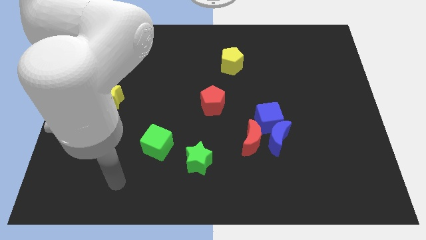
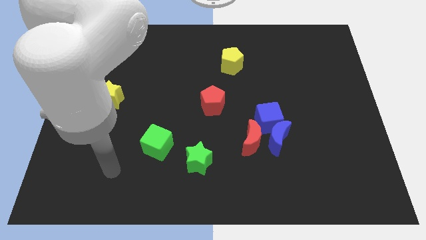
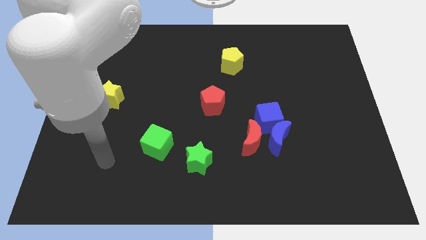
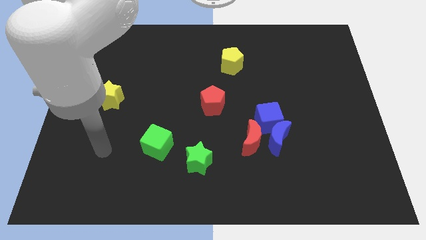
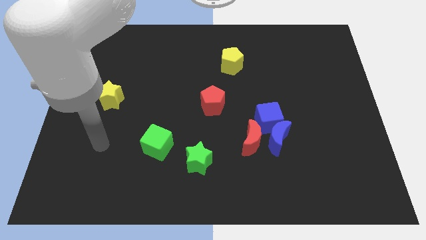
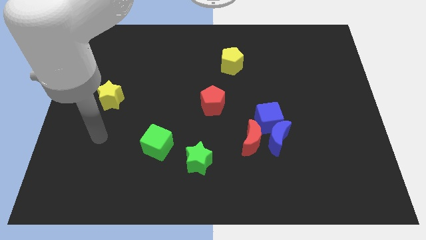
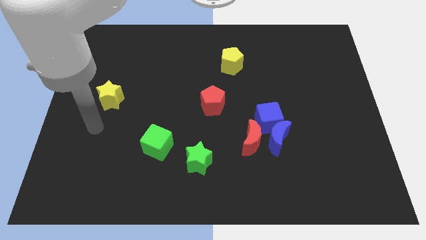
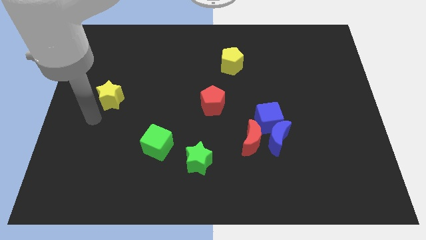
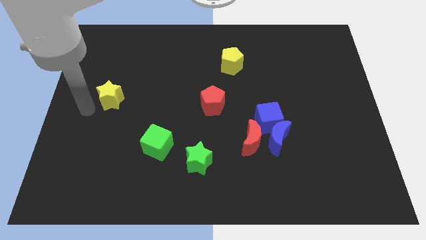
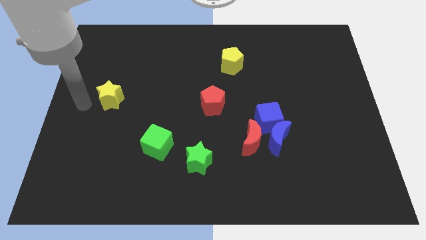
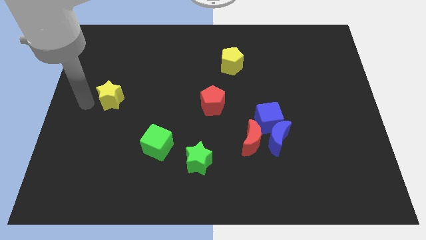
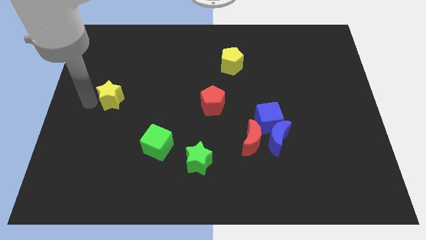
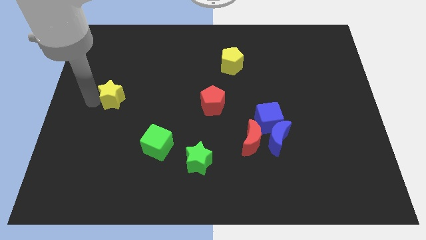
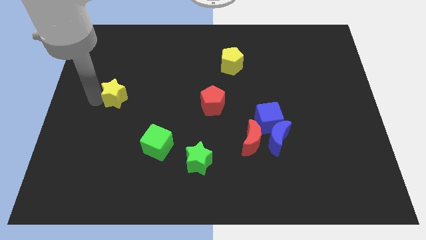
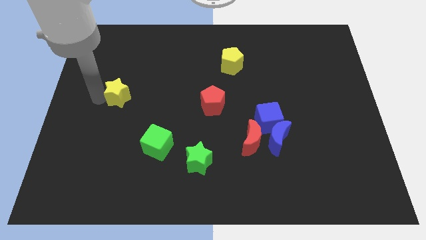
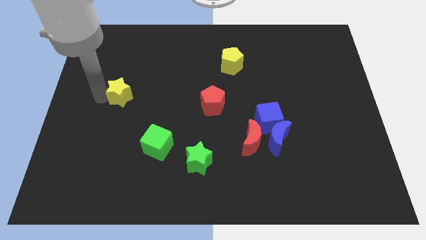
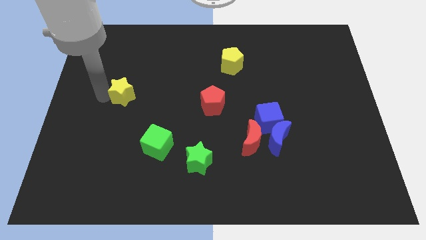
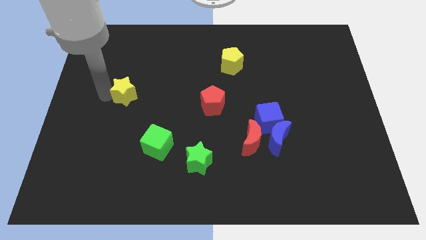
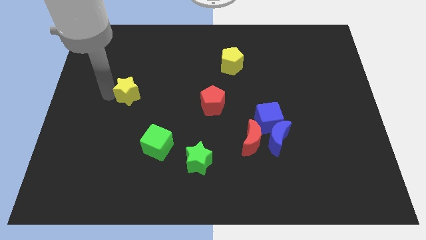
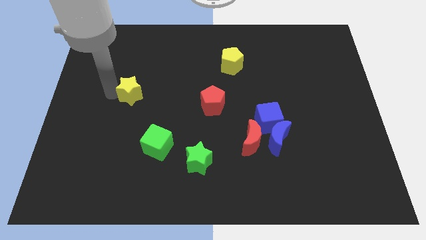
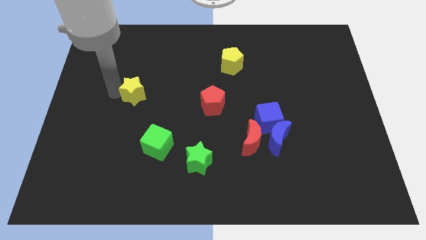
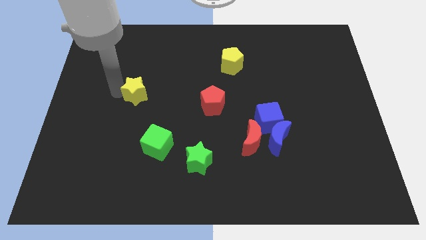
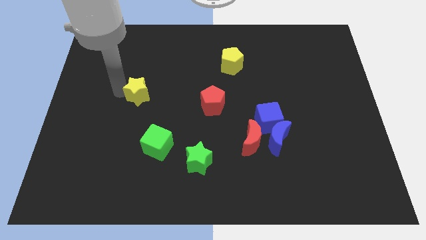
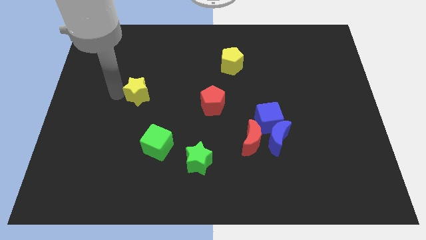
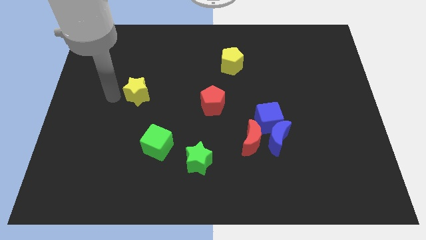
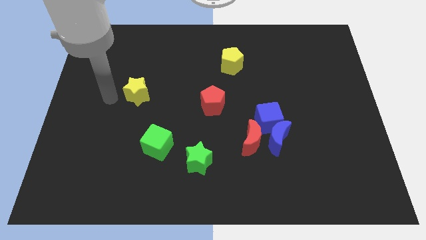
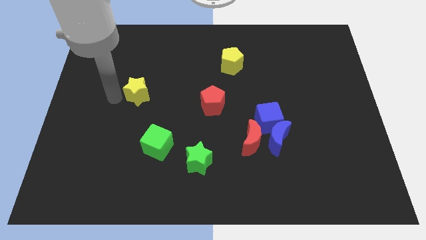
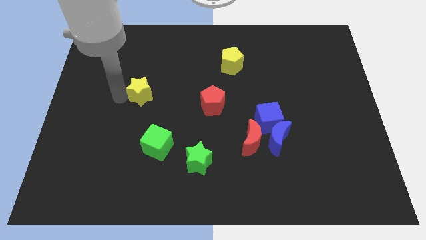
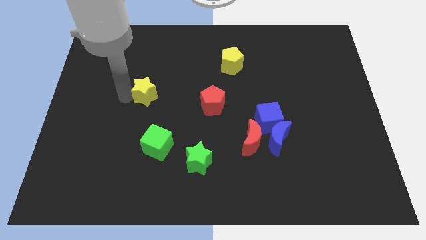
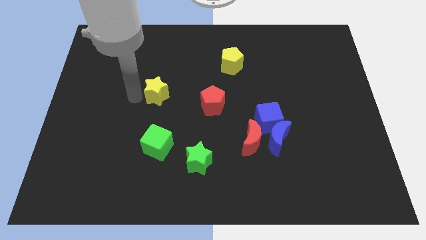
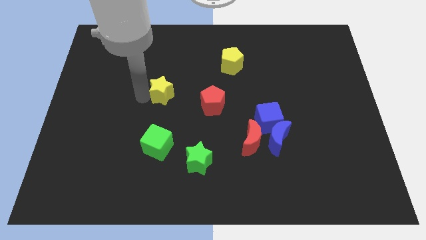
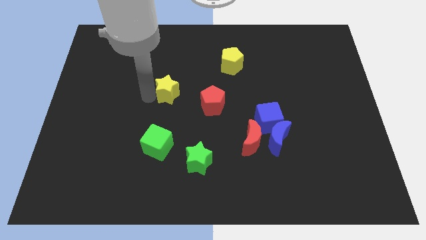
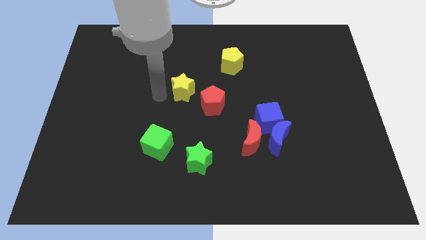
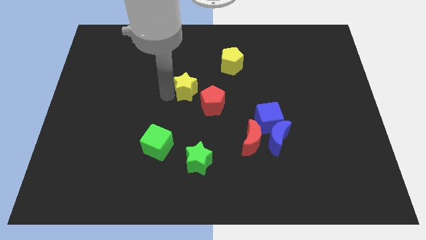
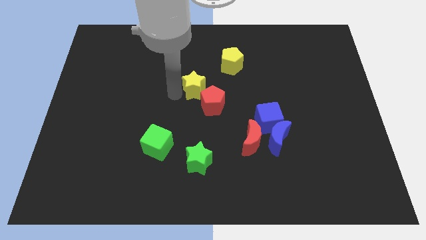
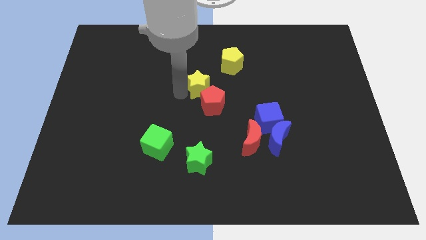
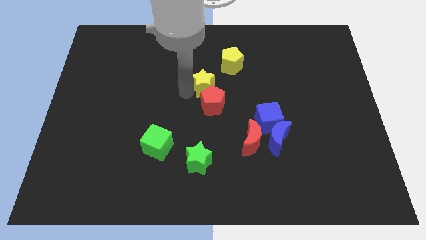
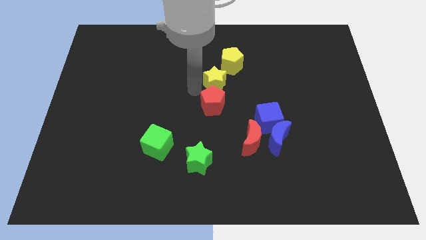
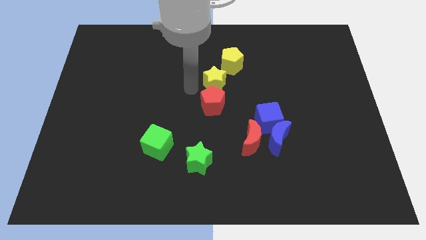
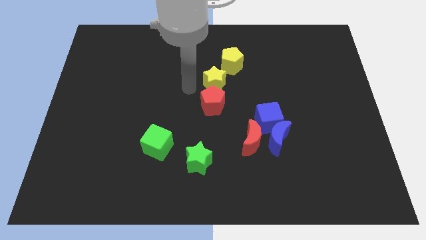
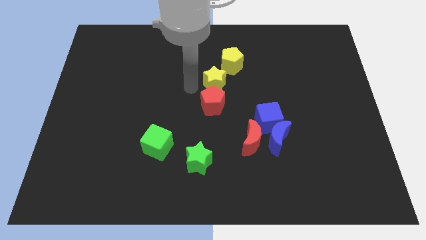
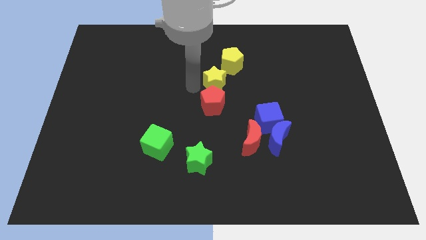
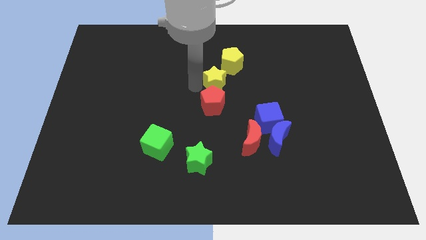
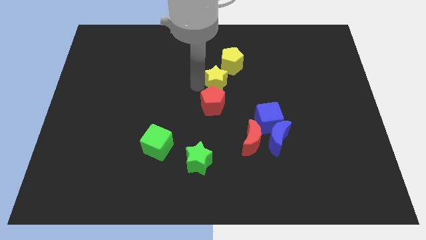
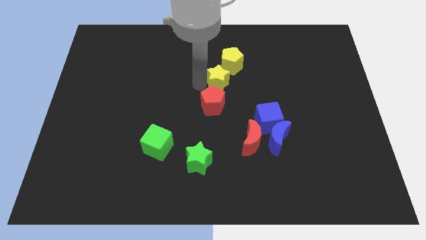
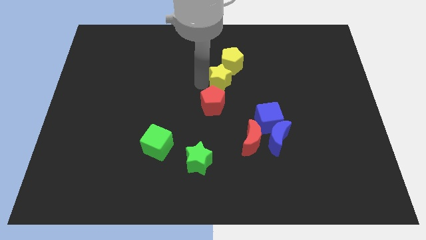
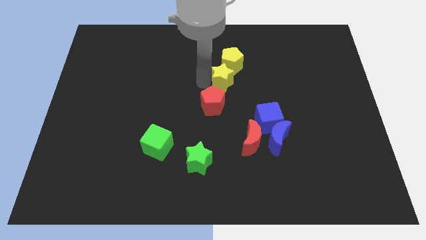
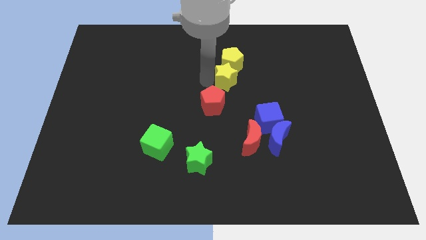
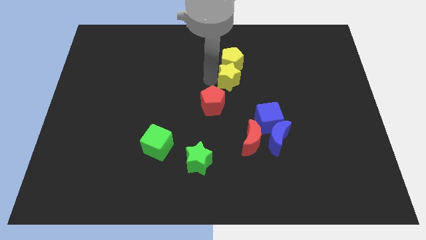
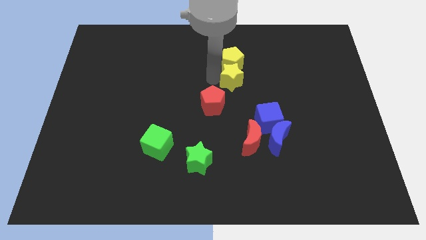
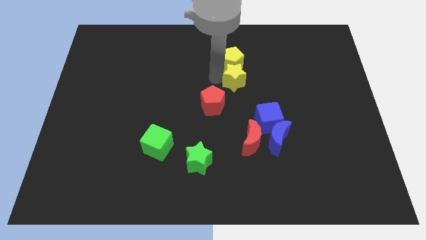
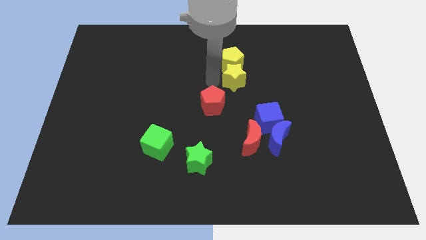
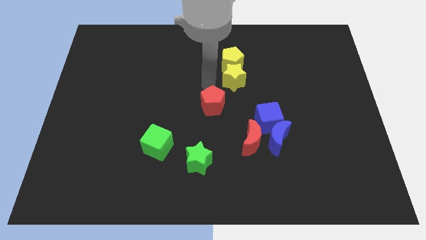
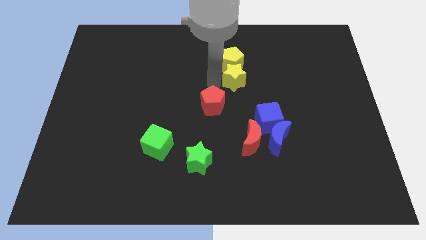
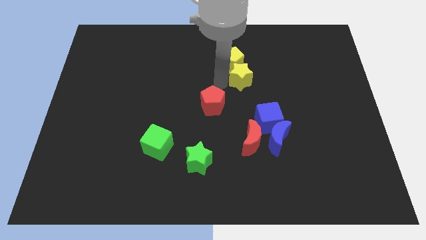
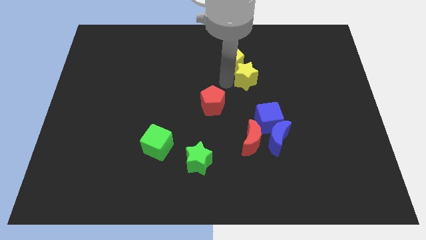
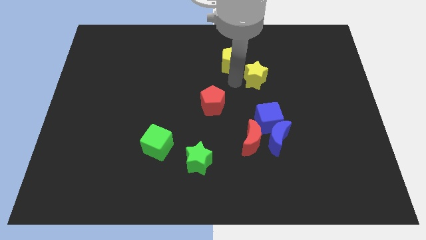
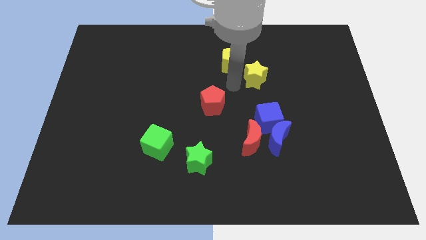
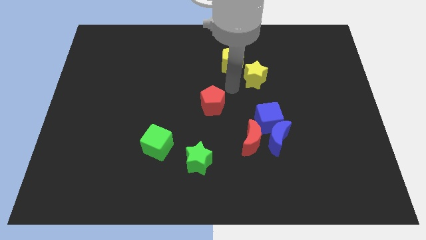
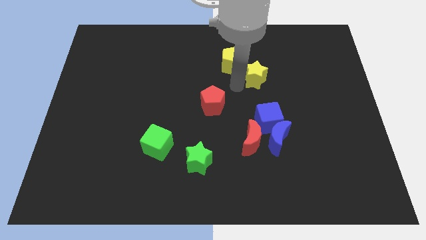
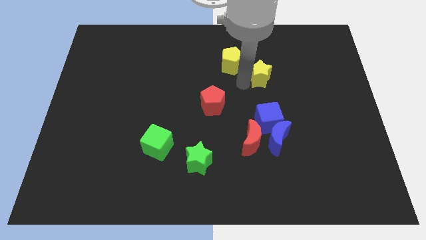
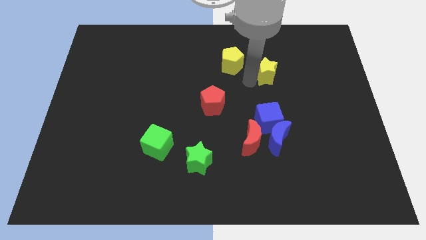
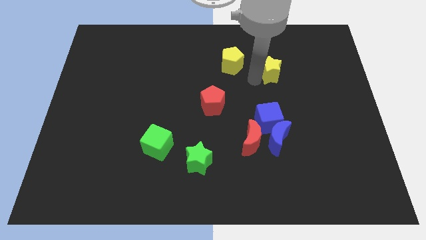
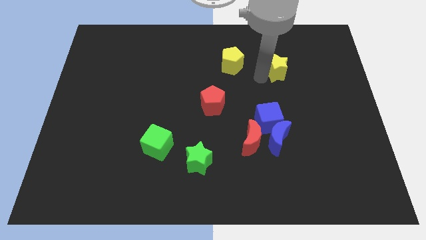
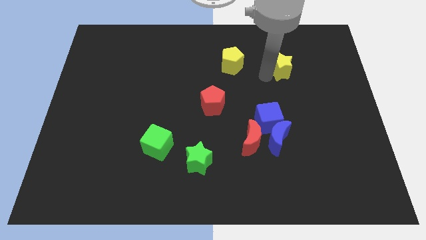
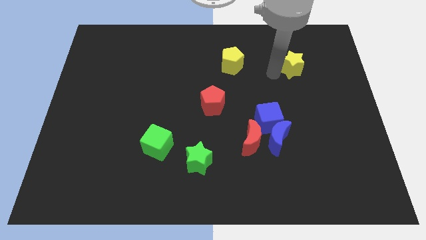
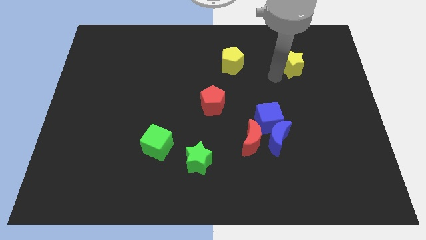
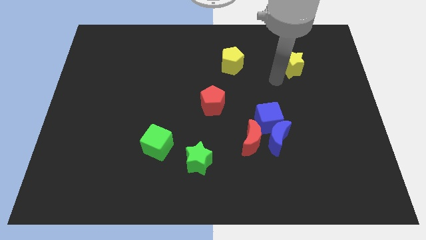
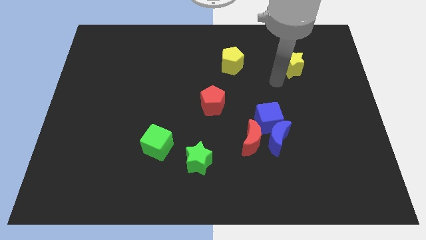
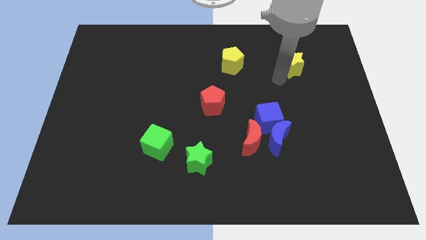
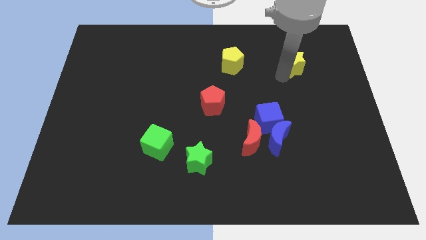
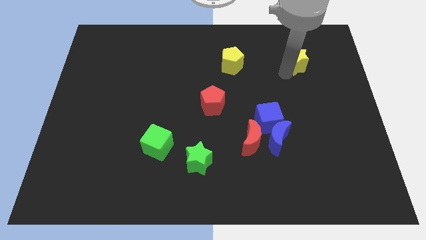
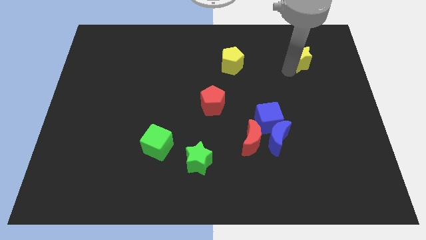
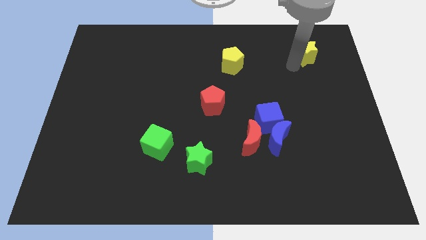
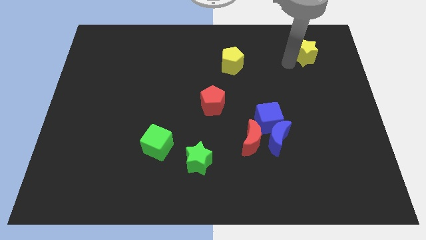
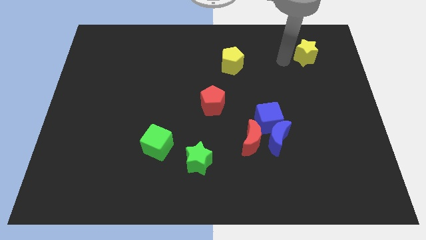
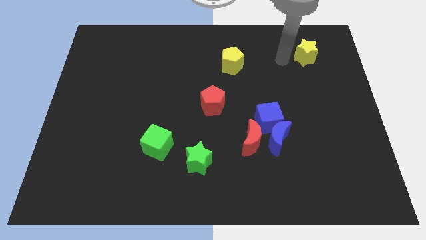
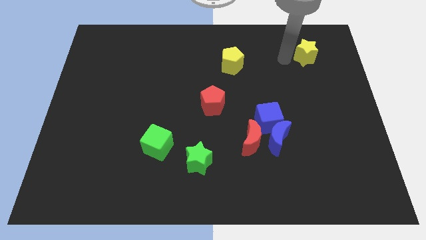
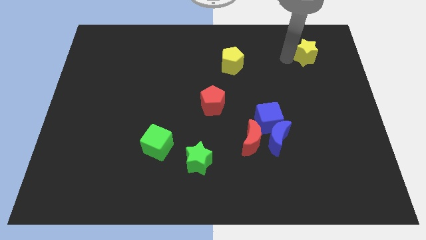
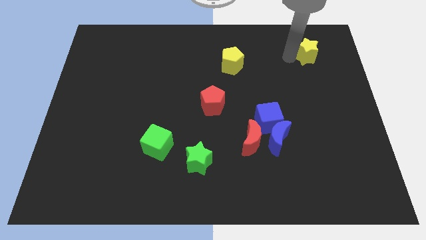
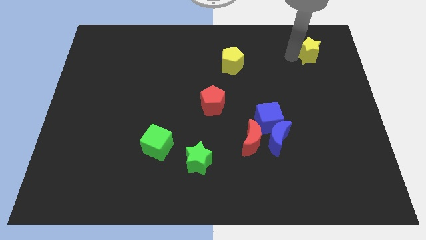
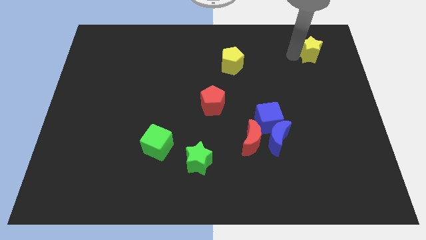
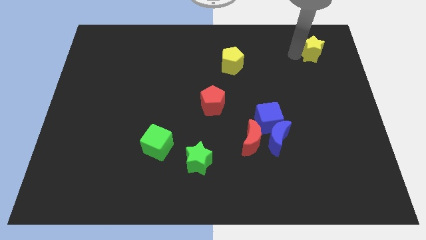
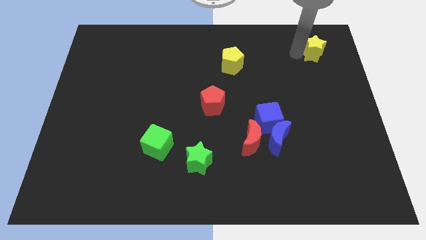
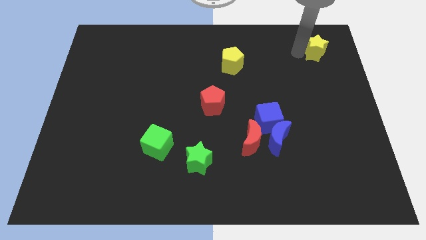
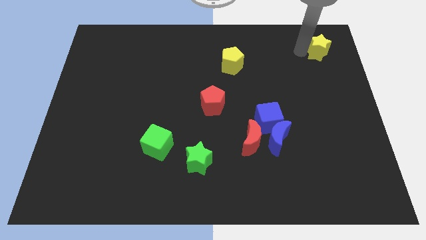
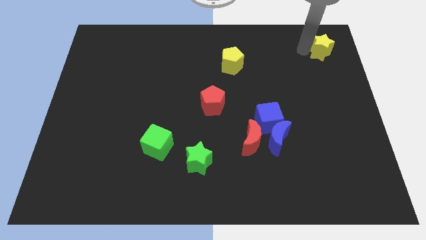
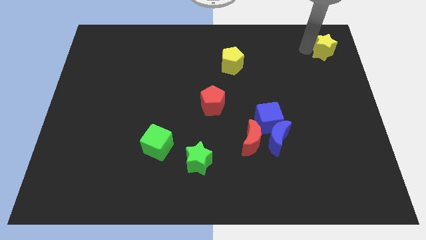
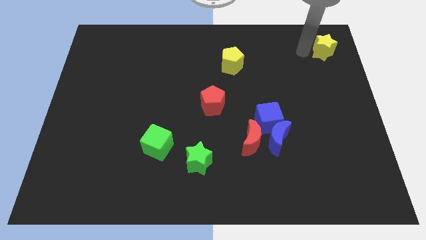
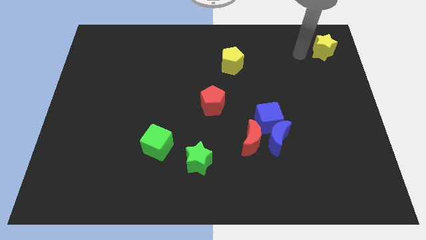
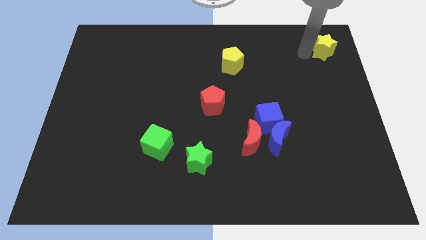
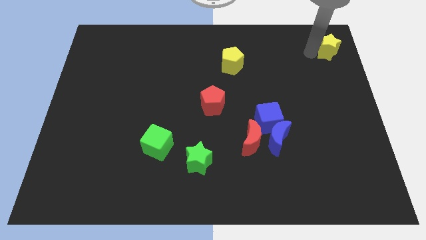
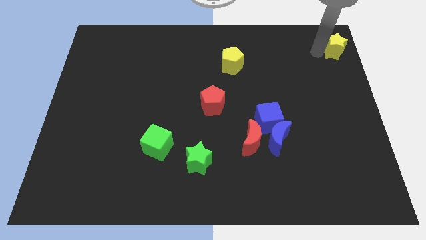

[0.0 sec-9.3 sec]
slide the yellow star to the top right
